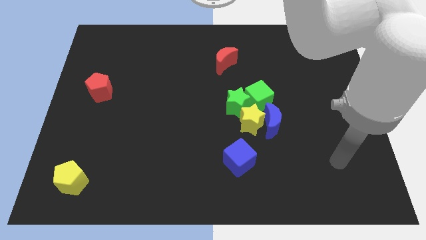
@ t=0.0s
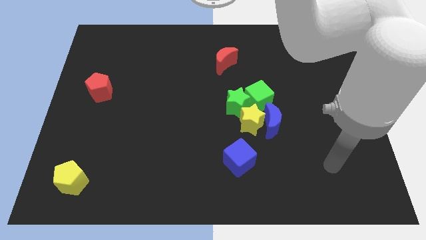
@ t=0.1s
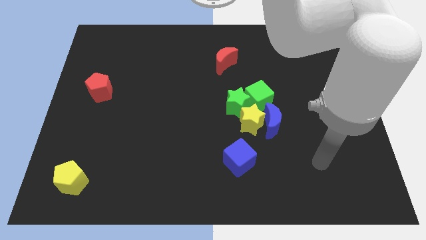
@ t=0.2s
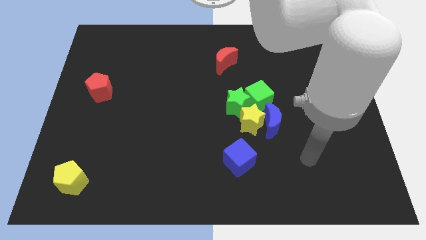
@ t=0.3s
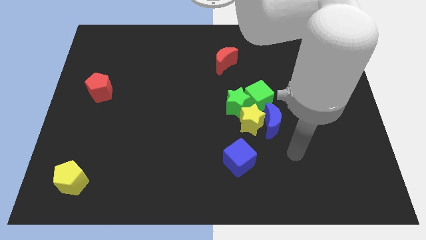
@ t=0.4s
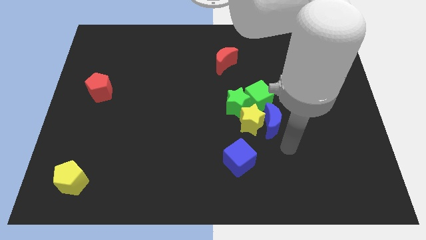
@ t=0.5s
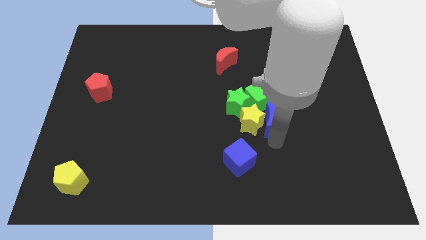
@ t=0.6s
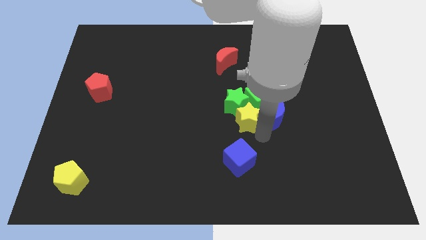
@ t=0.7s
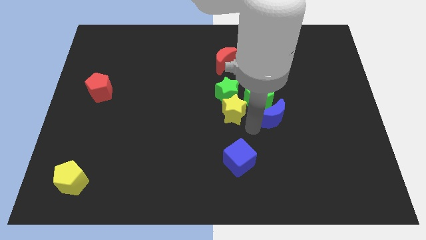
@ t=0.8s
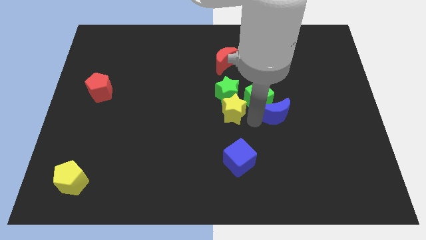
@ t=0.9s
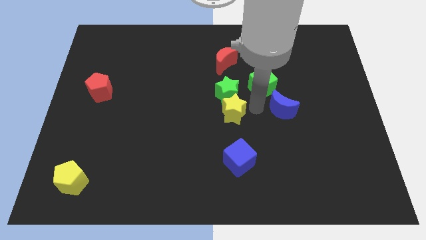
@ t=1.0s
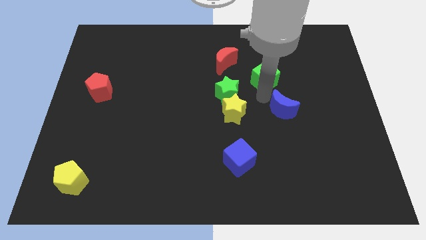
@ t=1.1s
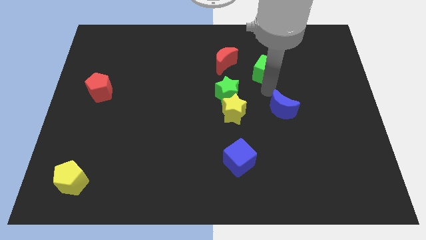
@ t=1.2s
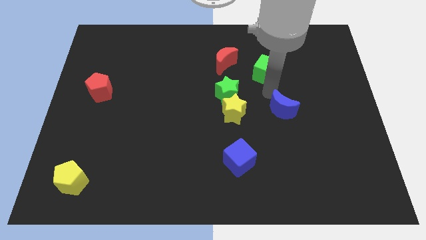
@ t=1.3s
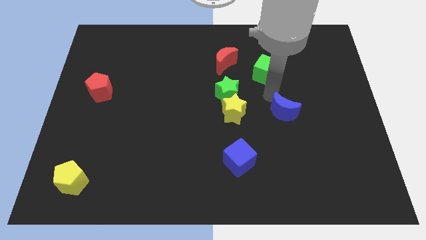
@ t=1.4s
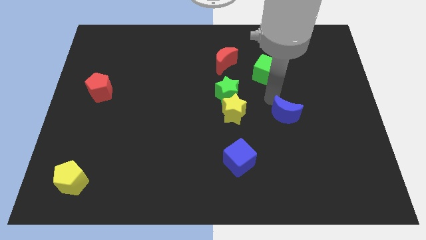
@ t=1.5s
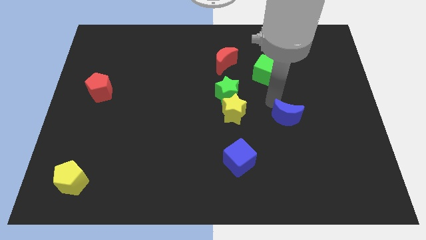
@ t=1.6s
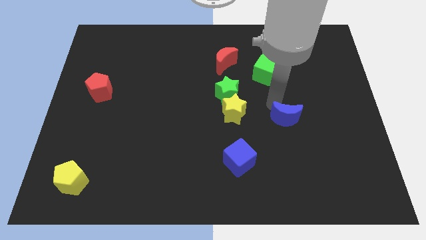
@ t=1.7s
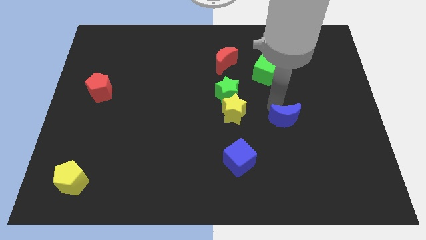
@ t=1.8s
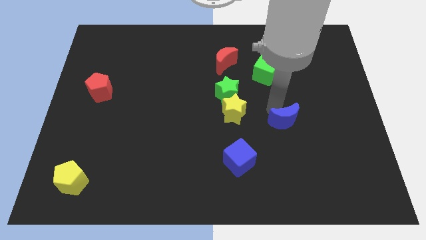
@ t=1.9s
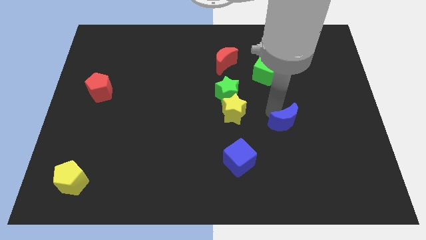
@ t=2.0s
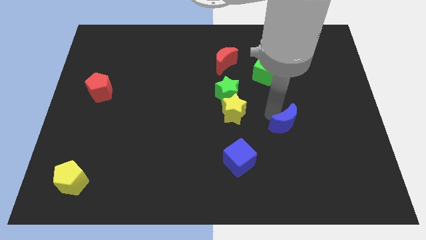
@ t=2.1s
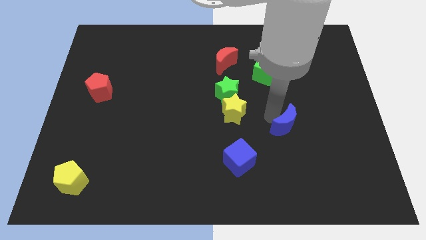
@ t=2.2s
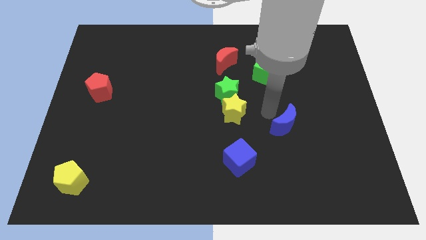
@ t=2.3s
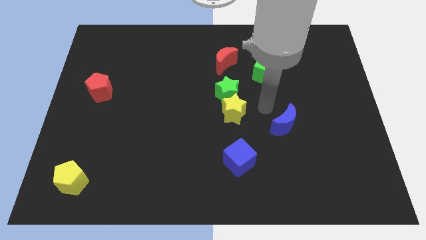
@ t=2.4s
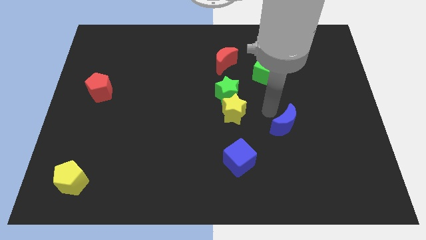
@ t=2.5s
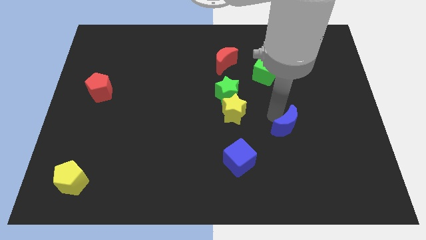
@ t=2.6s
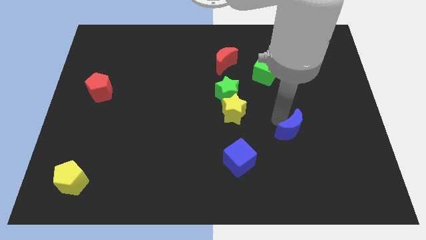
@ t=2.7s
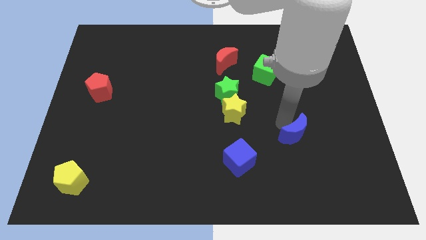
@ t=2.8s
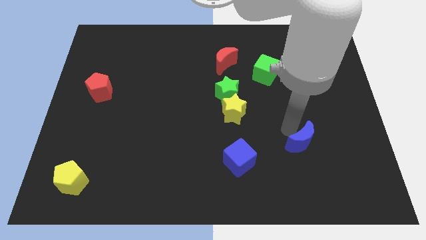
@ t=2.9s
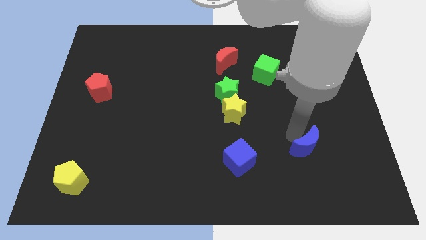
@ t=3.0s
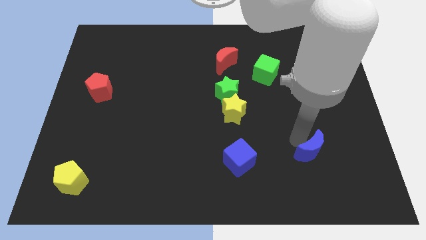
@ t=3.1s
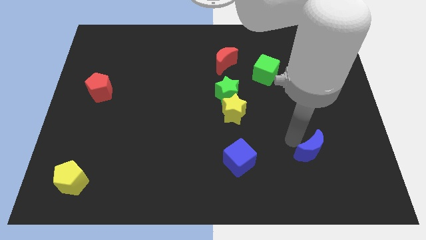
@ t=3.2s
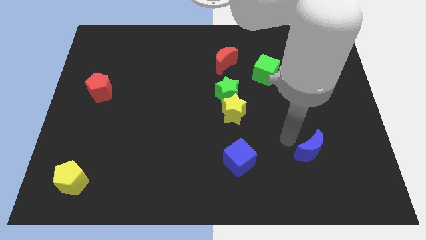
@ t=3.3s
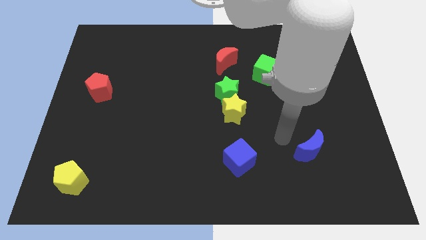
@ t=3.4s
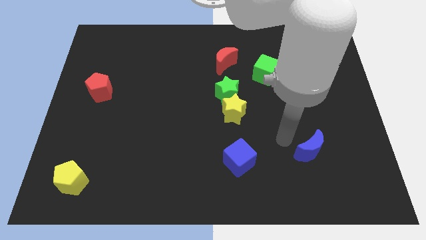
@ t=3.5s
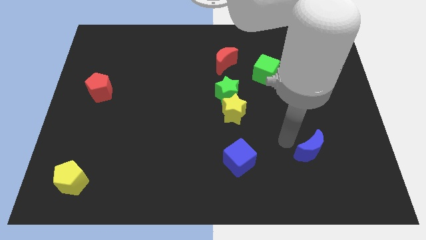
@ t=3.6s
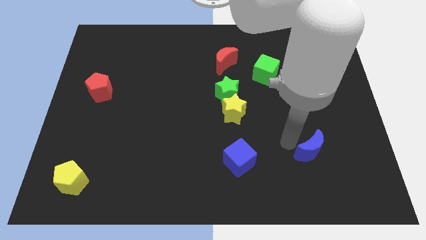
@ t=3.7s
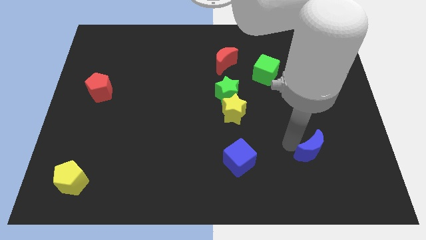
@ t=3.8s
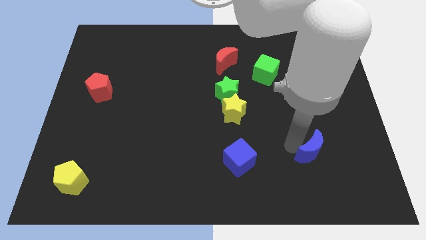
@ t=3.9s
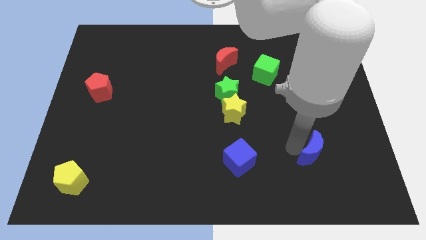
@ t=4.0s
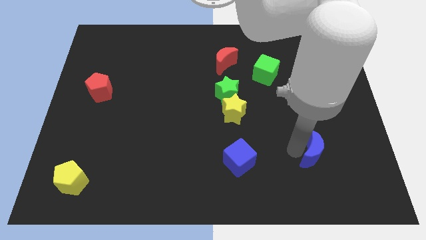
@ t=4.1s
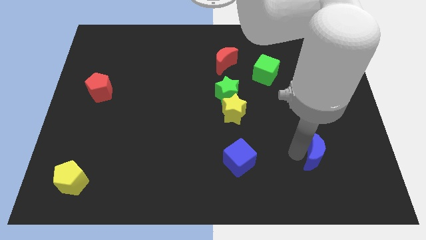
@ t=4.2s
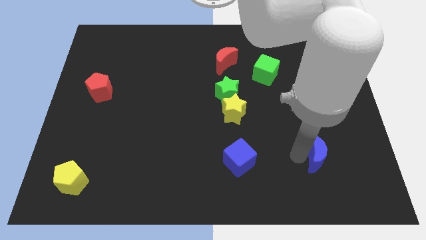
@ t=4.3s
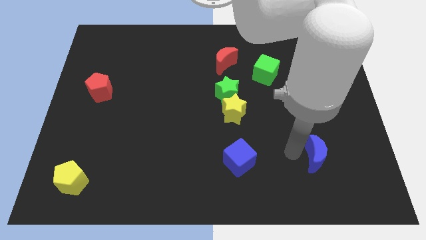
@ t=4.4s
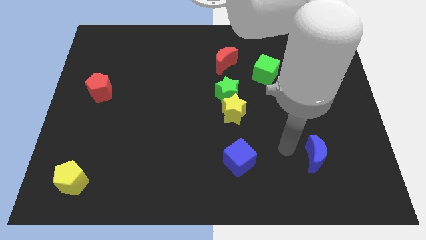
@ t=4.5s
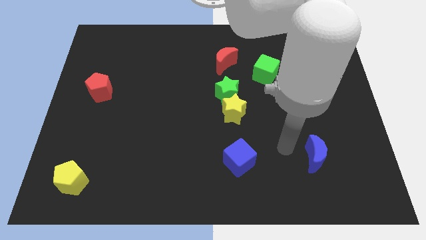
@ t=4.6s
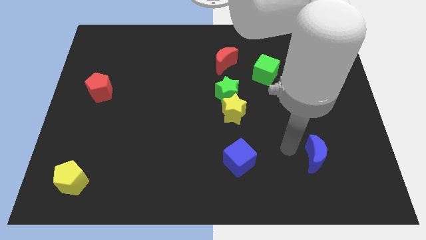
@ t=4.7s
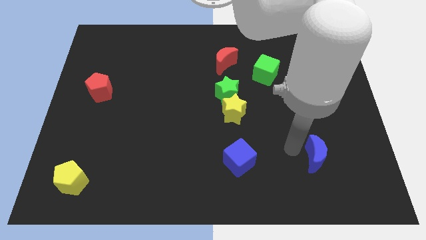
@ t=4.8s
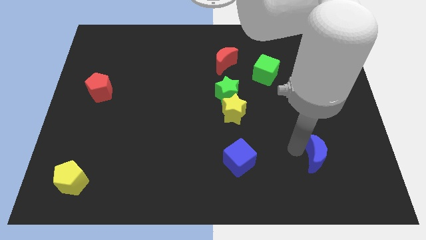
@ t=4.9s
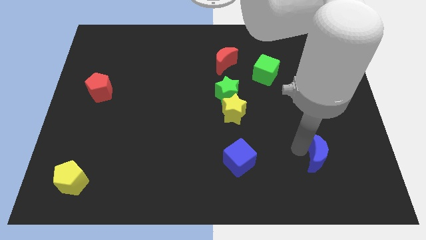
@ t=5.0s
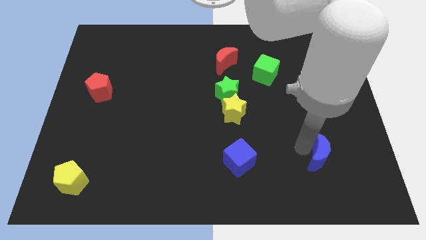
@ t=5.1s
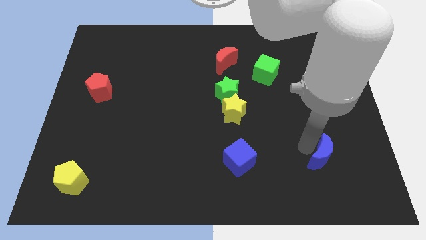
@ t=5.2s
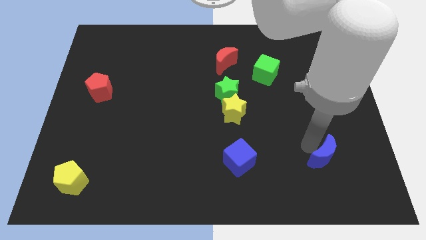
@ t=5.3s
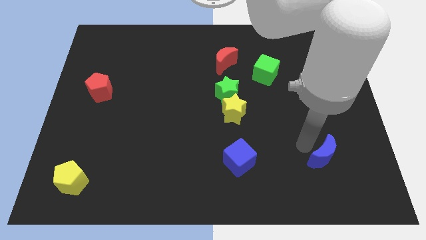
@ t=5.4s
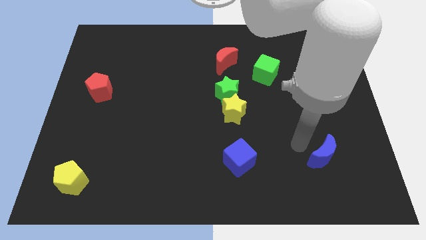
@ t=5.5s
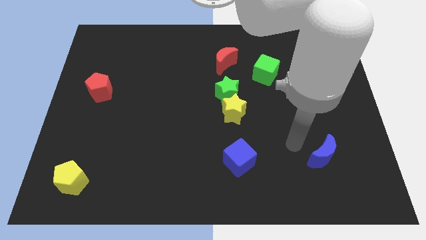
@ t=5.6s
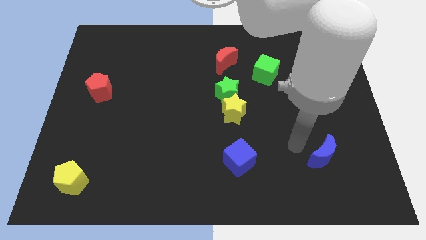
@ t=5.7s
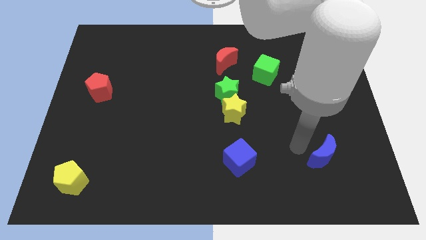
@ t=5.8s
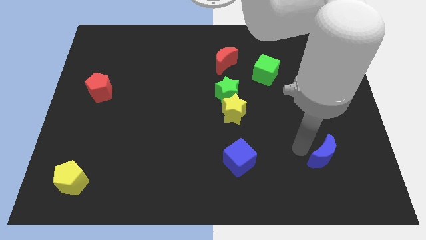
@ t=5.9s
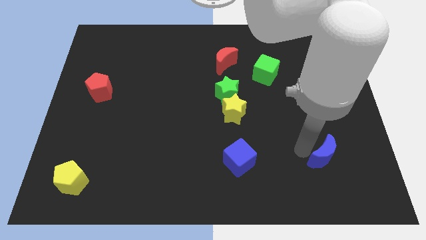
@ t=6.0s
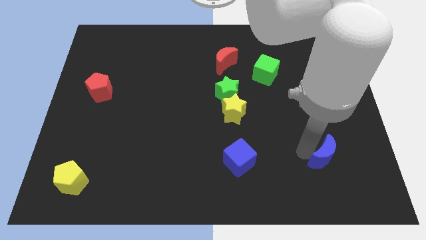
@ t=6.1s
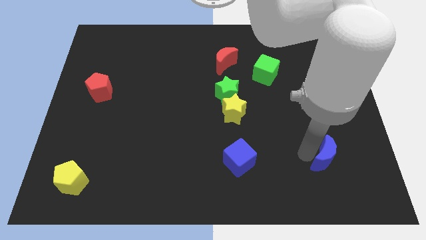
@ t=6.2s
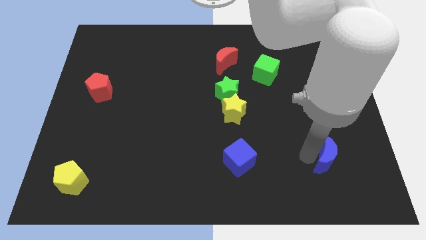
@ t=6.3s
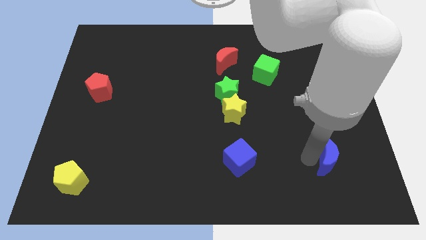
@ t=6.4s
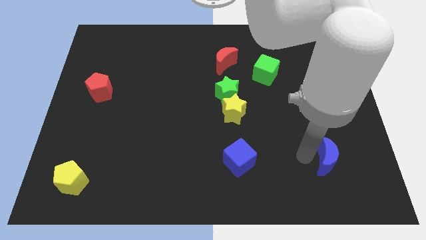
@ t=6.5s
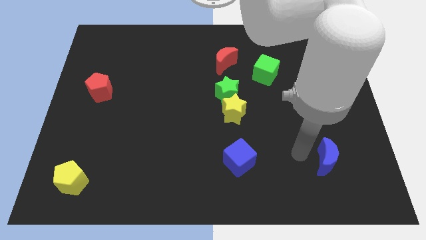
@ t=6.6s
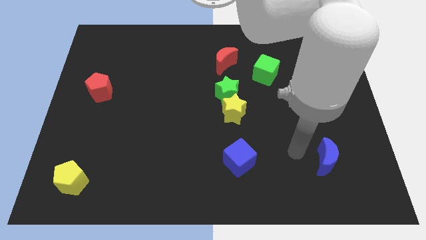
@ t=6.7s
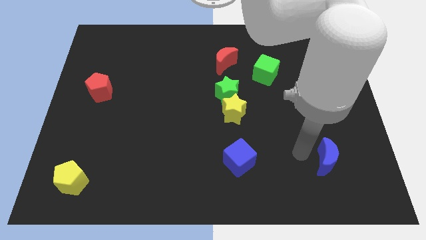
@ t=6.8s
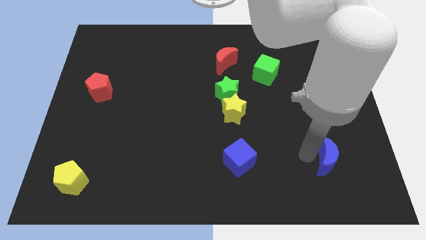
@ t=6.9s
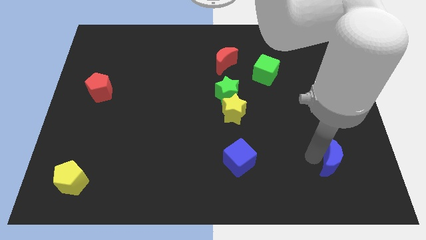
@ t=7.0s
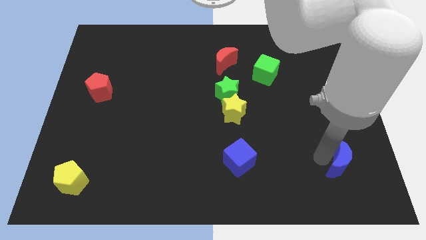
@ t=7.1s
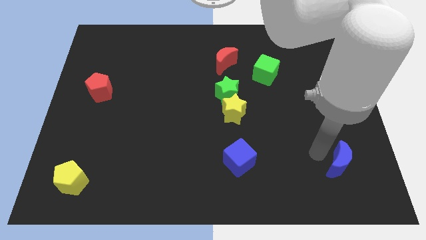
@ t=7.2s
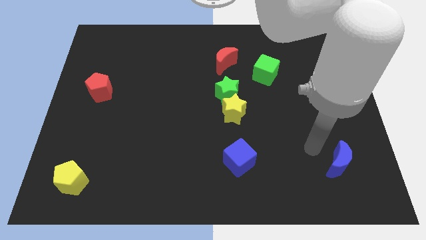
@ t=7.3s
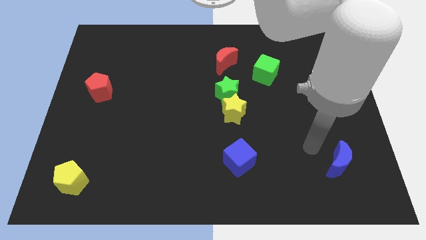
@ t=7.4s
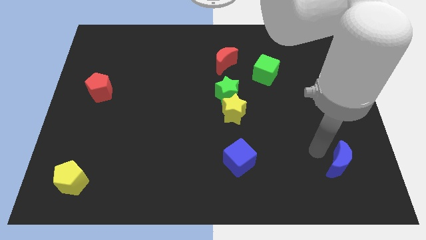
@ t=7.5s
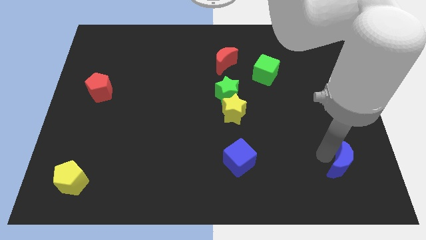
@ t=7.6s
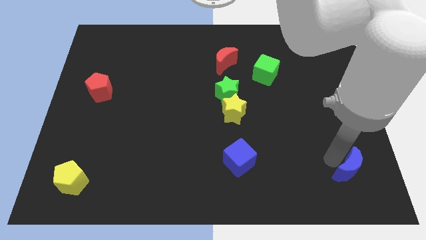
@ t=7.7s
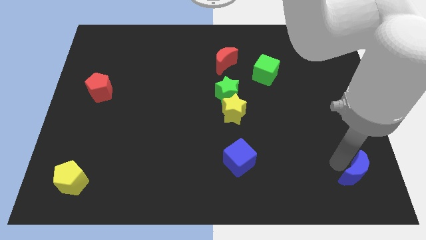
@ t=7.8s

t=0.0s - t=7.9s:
push the blue moon to the bottom right
